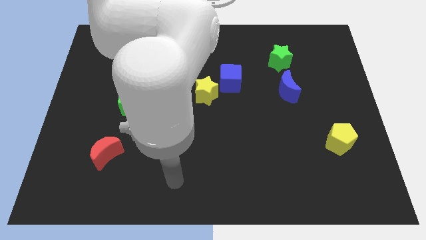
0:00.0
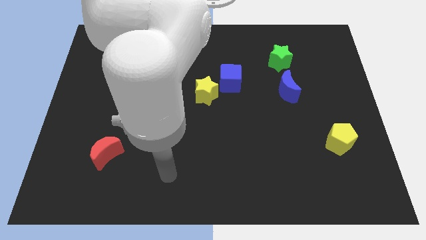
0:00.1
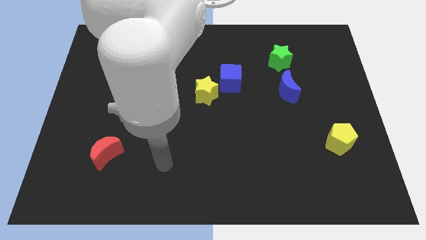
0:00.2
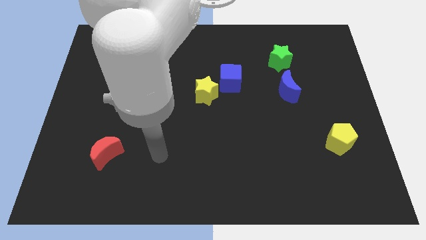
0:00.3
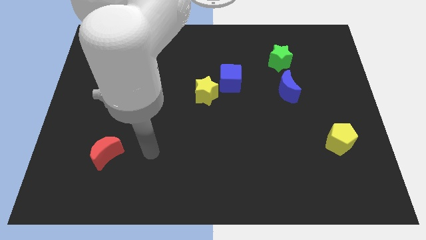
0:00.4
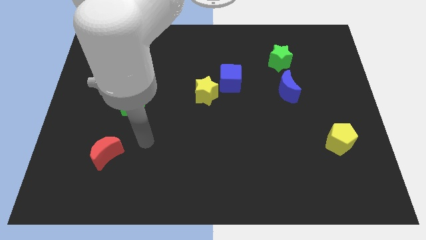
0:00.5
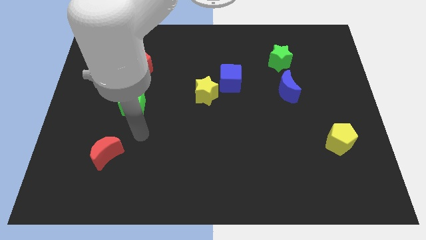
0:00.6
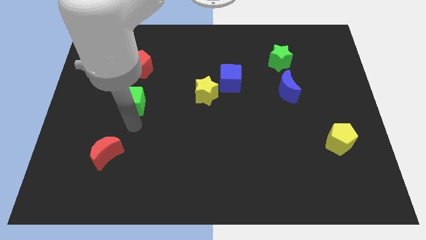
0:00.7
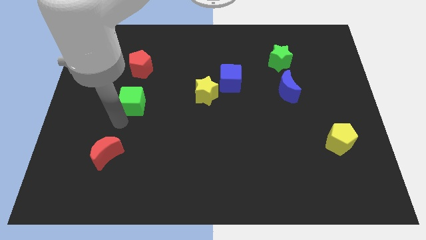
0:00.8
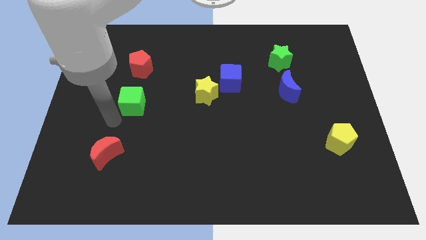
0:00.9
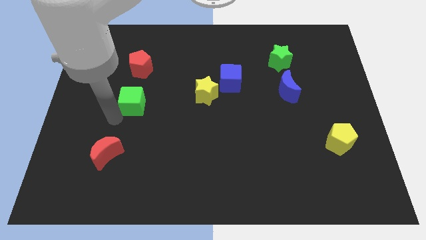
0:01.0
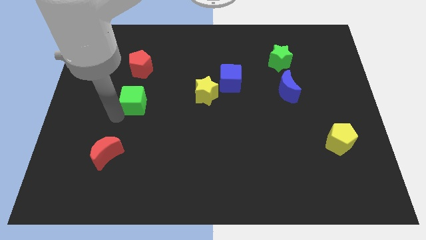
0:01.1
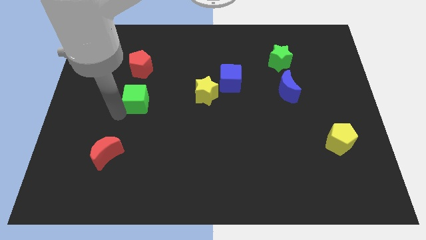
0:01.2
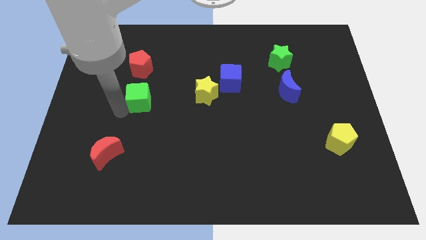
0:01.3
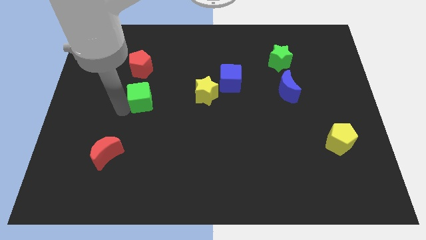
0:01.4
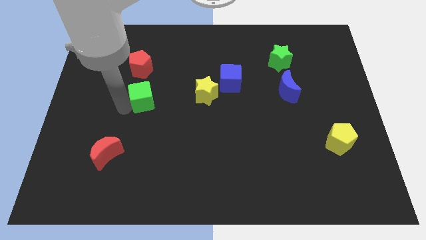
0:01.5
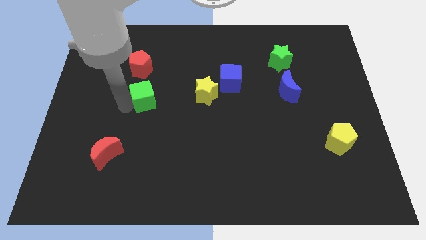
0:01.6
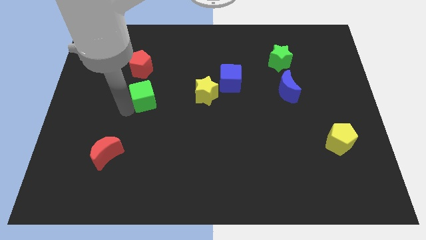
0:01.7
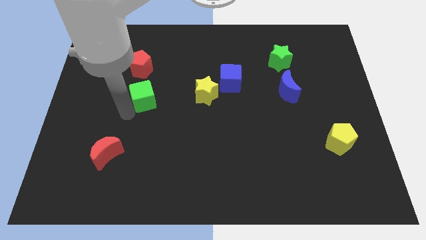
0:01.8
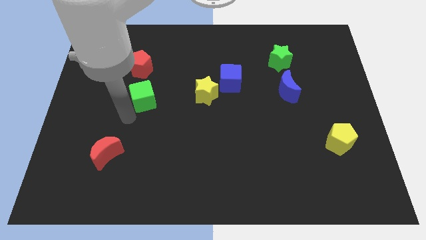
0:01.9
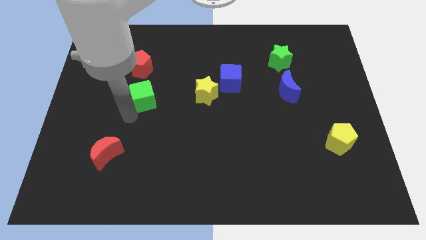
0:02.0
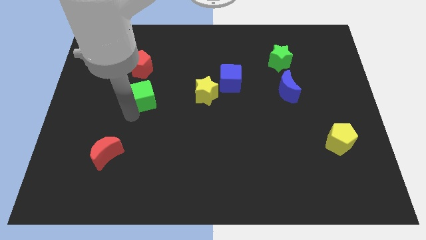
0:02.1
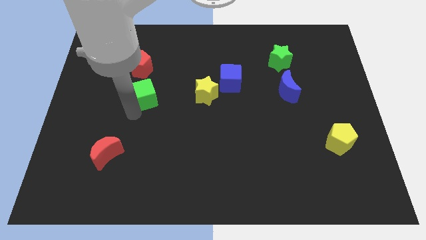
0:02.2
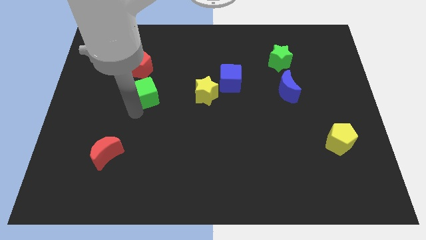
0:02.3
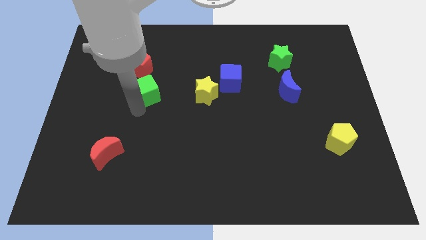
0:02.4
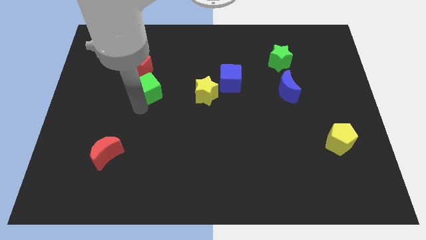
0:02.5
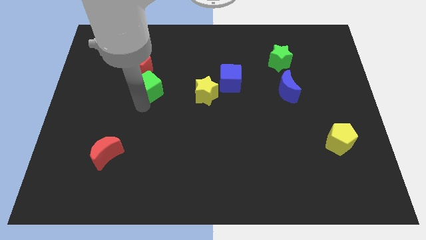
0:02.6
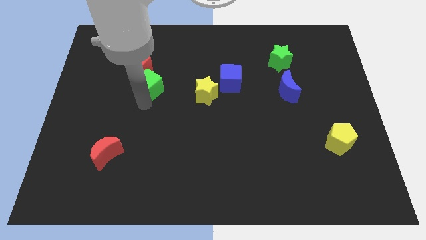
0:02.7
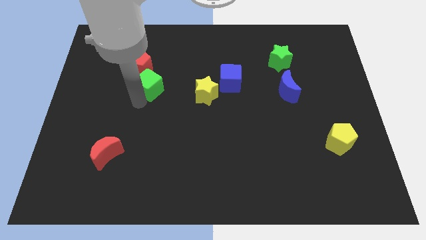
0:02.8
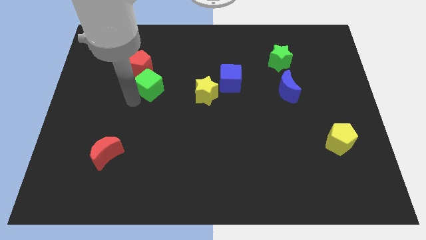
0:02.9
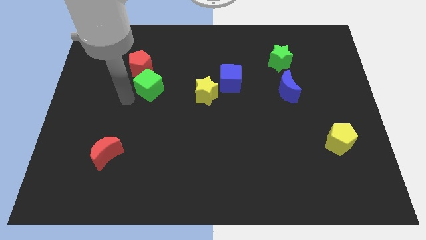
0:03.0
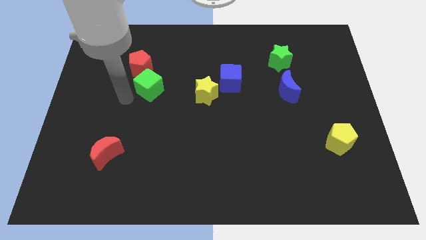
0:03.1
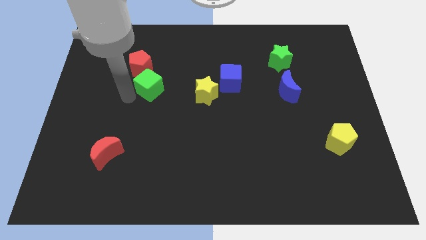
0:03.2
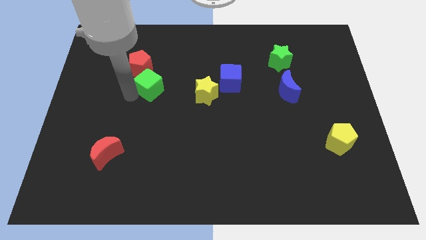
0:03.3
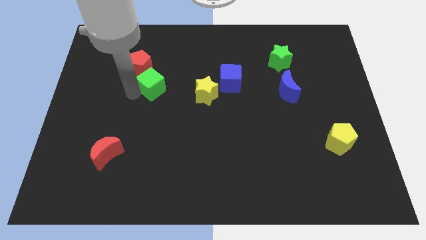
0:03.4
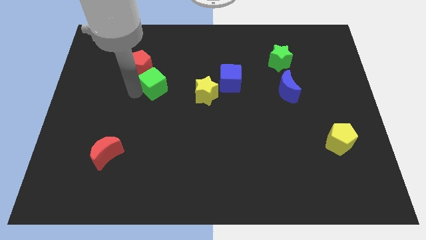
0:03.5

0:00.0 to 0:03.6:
push the green cube somewhat up and to the right diagonally

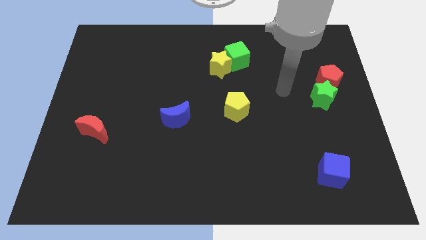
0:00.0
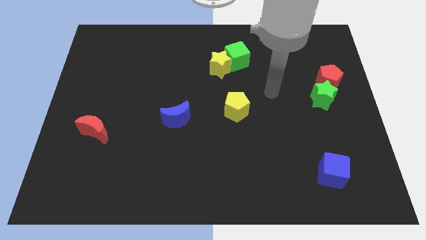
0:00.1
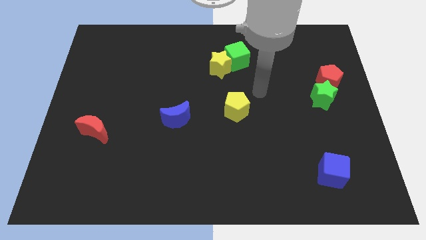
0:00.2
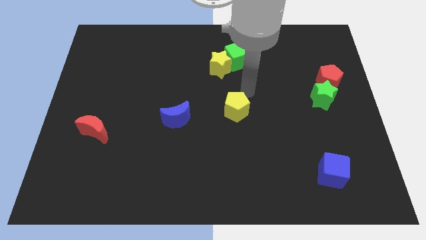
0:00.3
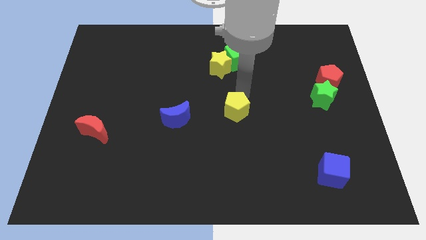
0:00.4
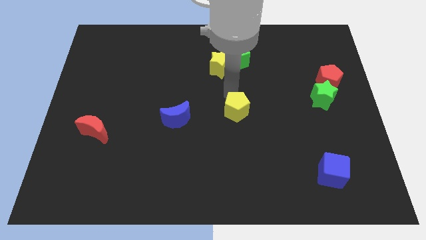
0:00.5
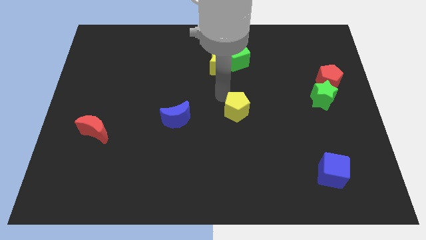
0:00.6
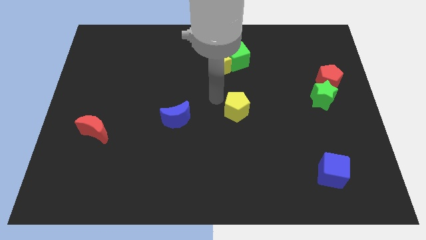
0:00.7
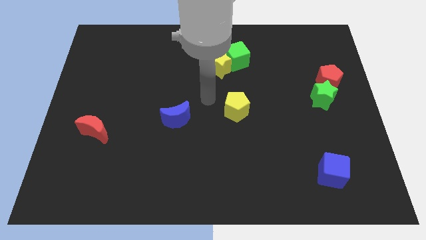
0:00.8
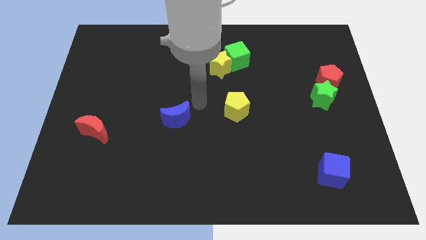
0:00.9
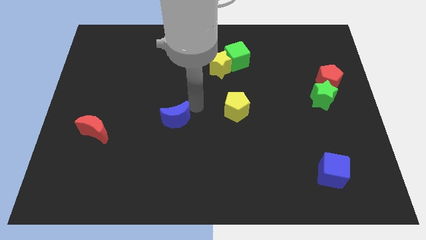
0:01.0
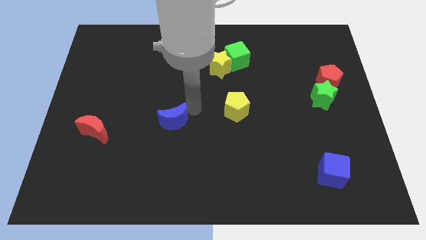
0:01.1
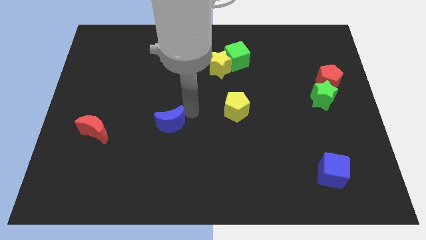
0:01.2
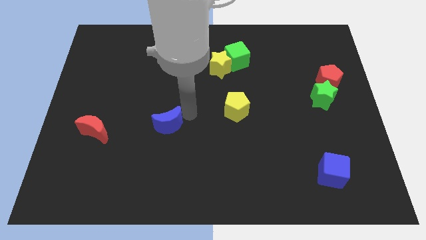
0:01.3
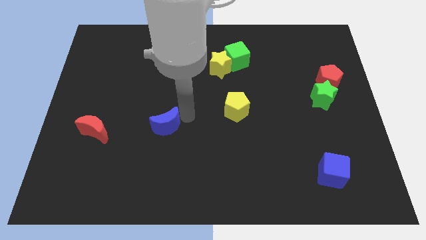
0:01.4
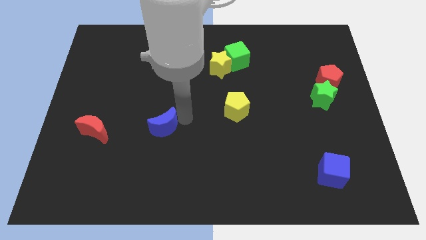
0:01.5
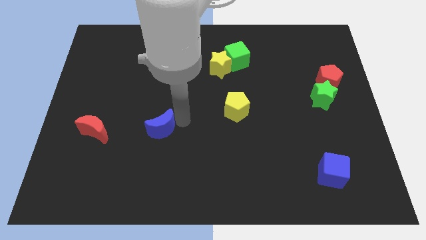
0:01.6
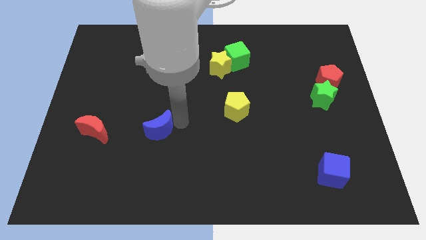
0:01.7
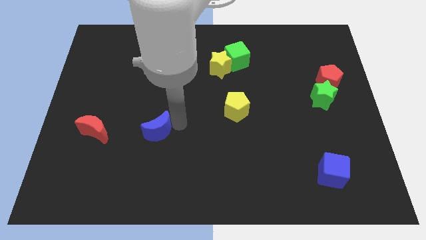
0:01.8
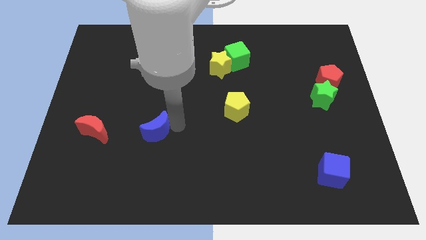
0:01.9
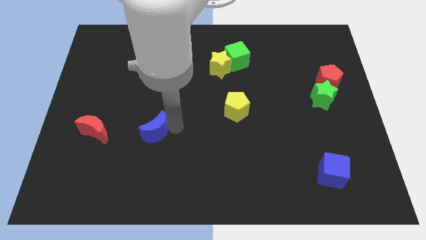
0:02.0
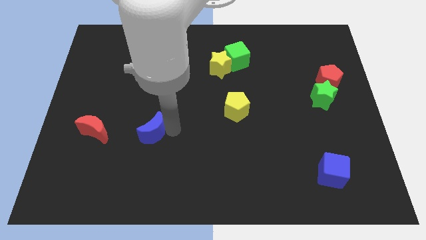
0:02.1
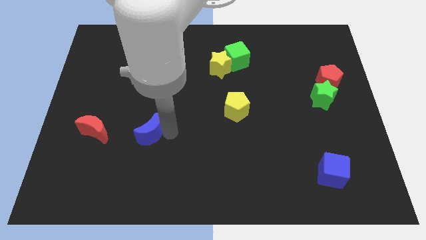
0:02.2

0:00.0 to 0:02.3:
slightly push the blue moon diagonally down and to the left

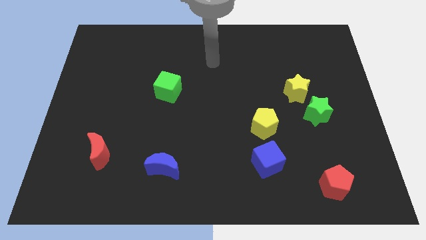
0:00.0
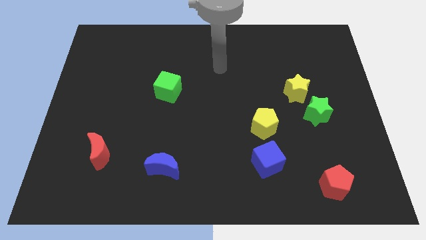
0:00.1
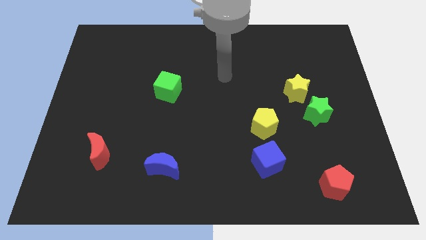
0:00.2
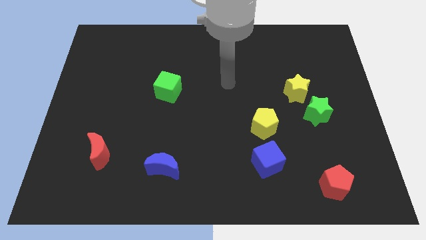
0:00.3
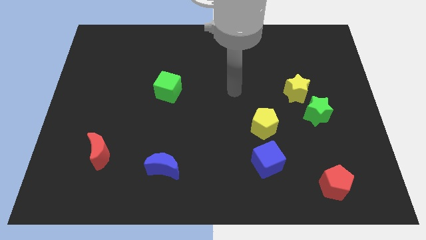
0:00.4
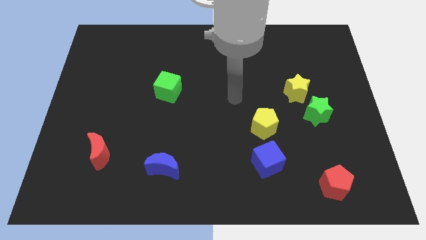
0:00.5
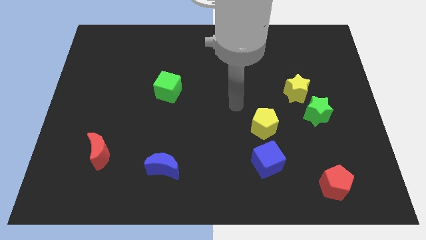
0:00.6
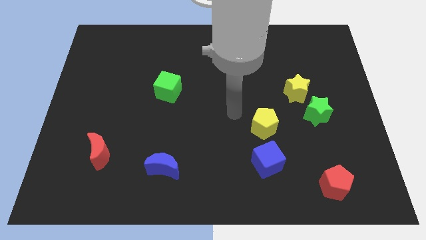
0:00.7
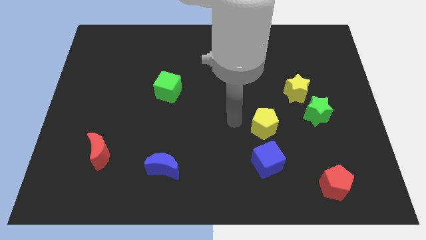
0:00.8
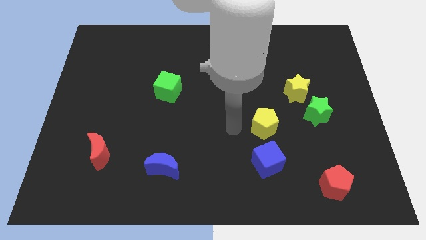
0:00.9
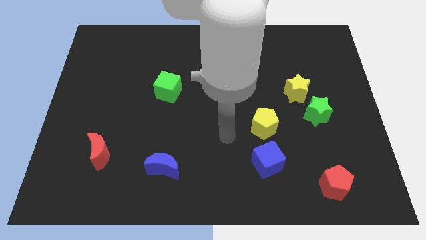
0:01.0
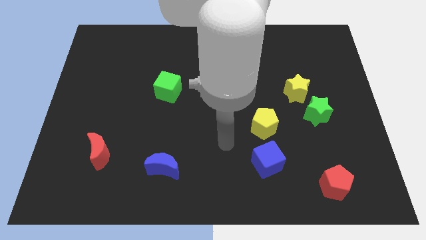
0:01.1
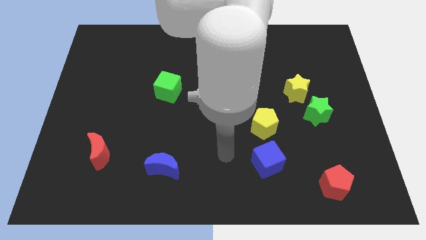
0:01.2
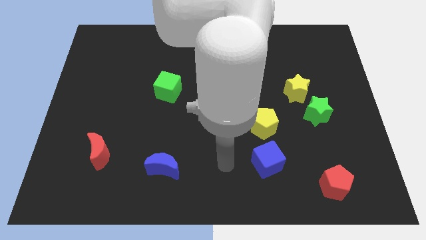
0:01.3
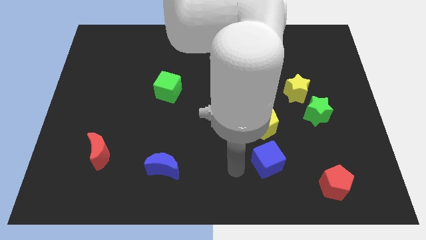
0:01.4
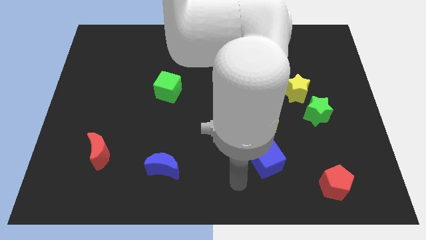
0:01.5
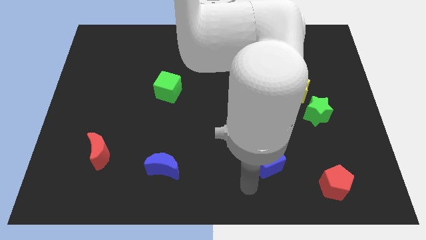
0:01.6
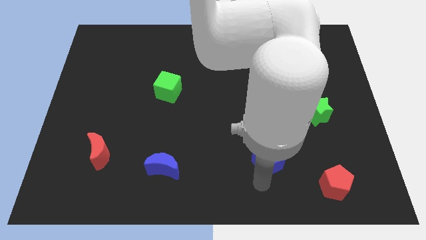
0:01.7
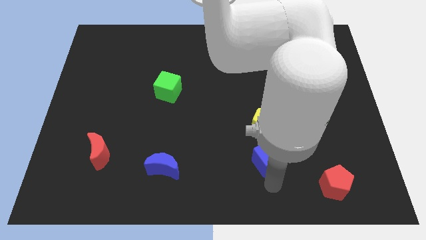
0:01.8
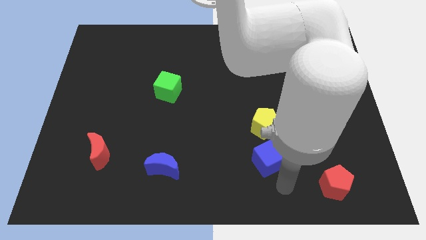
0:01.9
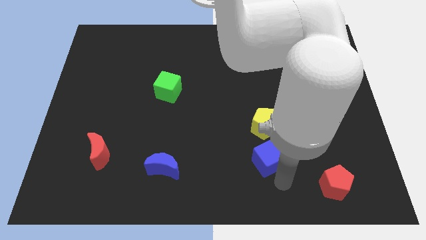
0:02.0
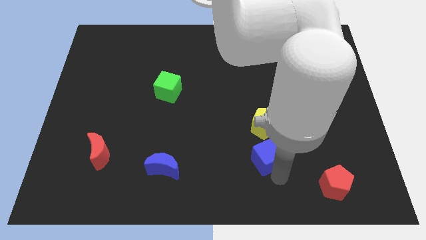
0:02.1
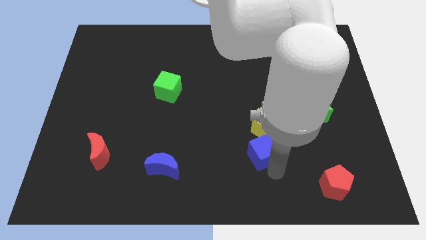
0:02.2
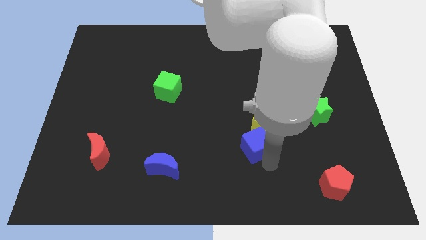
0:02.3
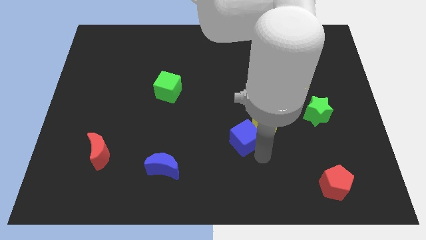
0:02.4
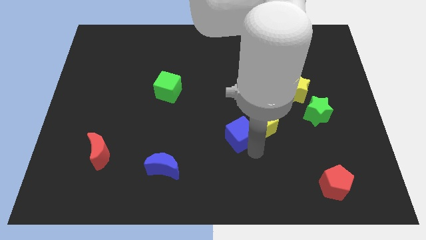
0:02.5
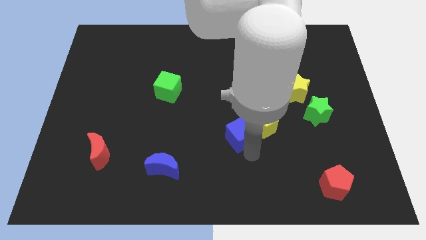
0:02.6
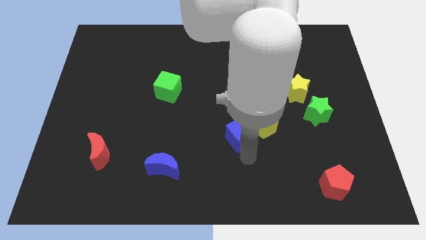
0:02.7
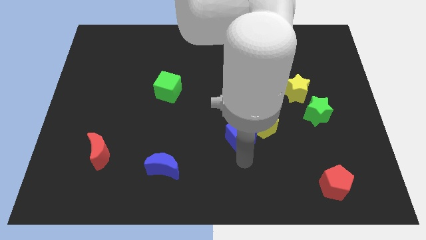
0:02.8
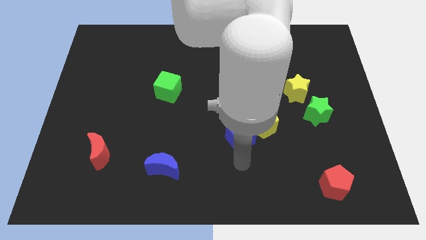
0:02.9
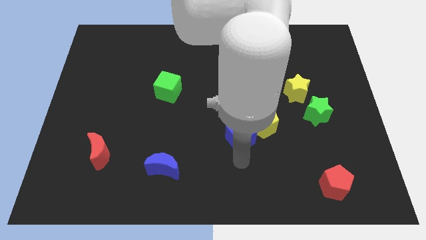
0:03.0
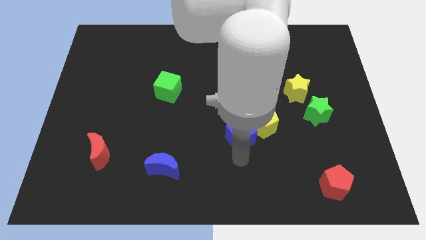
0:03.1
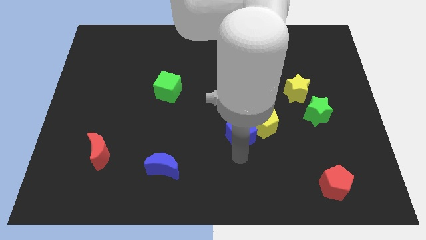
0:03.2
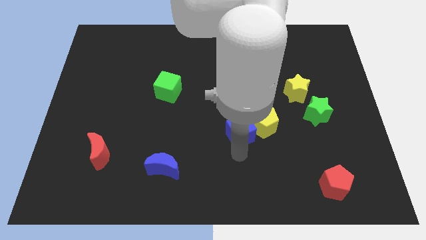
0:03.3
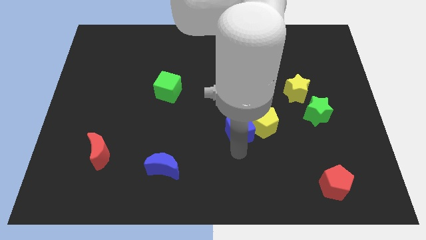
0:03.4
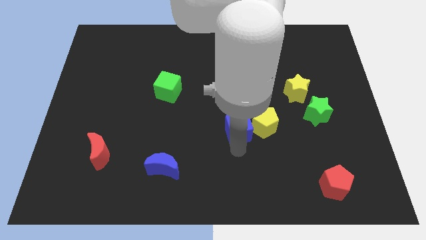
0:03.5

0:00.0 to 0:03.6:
move the blue cube upwards somewhat
